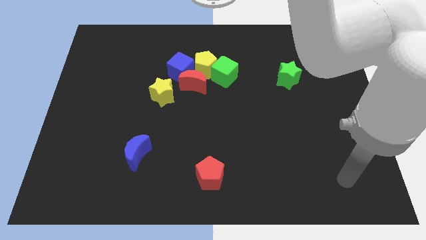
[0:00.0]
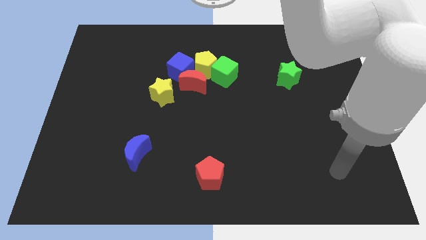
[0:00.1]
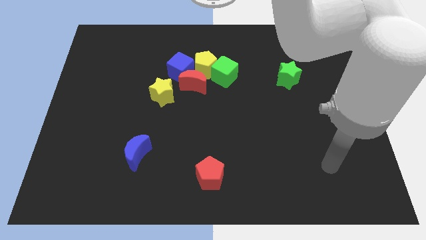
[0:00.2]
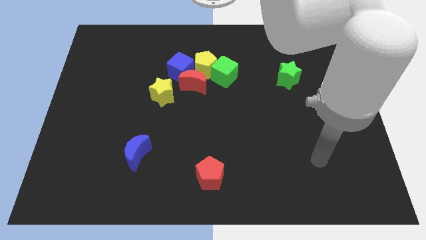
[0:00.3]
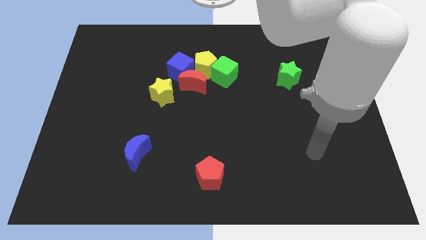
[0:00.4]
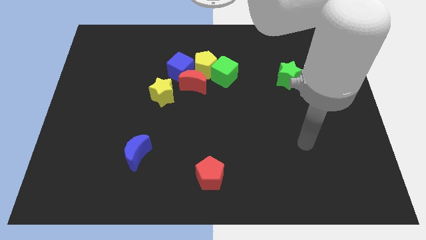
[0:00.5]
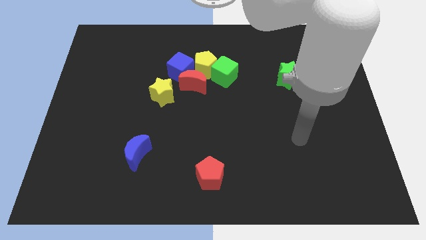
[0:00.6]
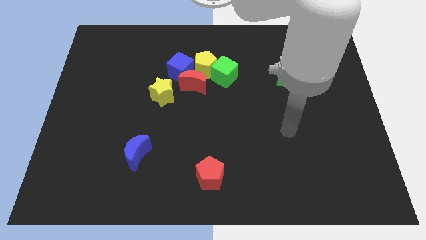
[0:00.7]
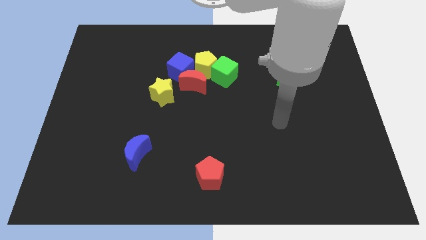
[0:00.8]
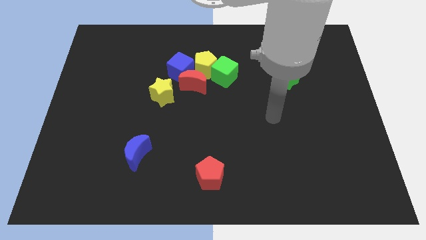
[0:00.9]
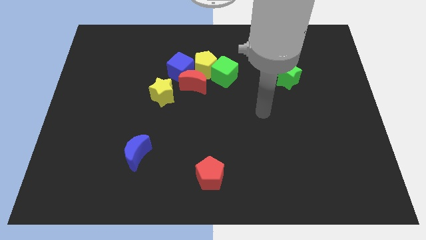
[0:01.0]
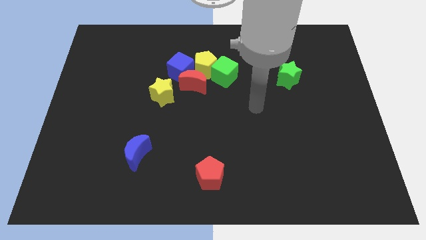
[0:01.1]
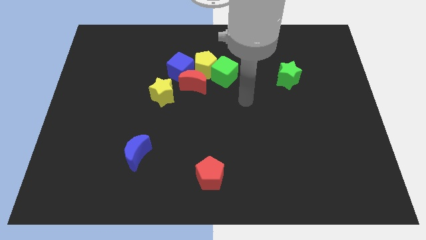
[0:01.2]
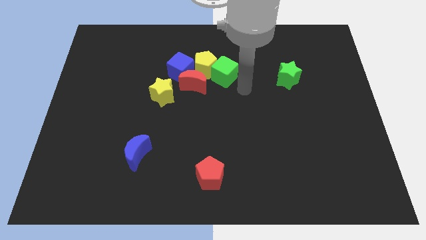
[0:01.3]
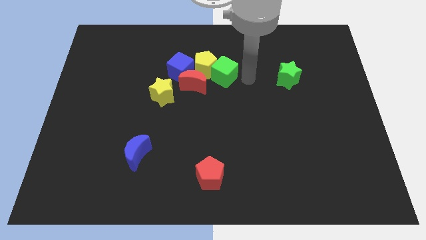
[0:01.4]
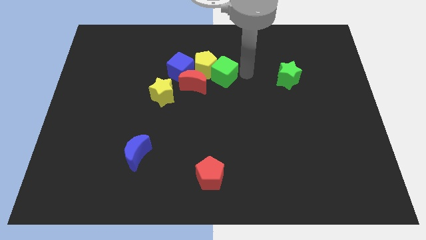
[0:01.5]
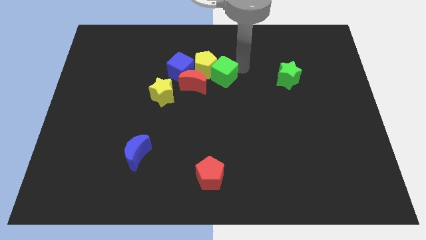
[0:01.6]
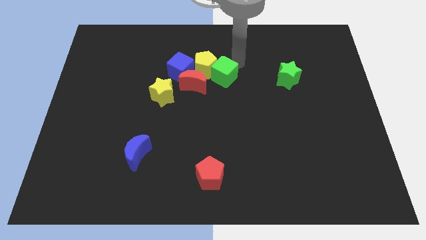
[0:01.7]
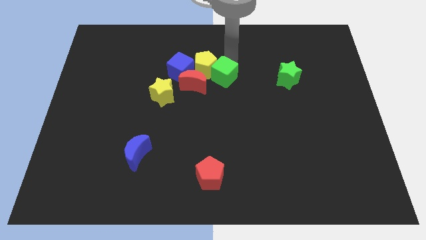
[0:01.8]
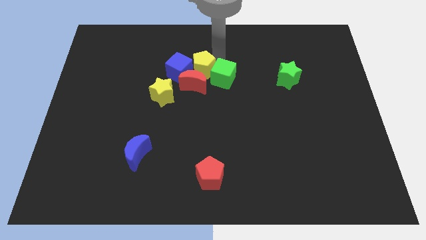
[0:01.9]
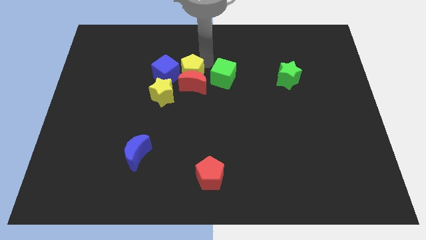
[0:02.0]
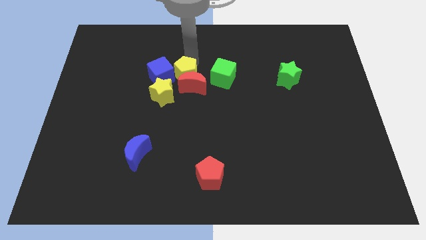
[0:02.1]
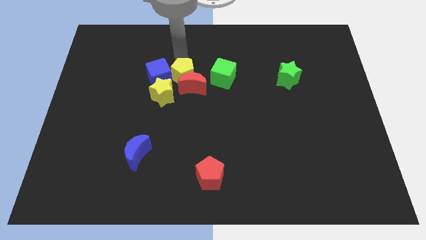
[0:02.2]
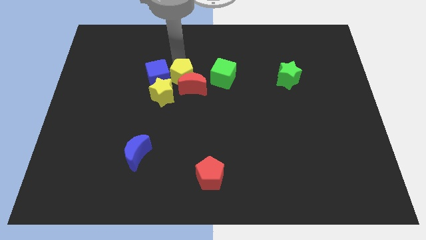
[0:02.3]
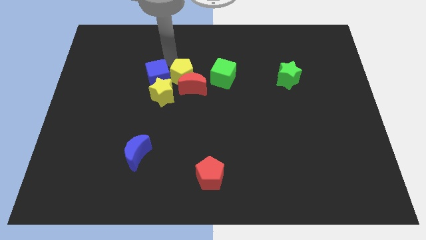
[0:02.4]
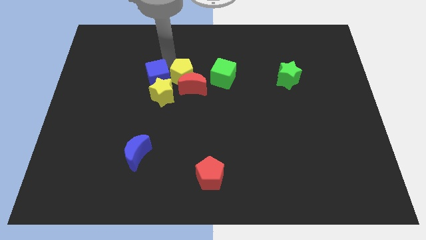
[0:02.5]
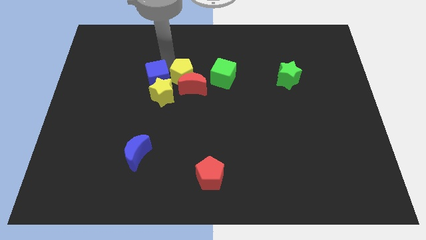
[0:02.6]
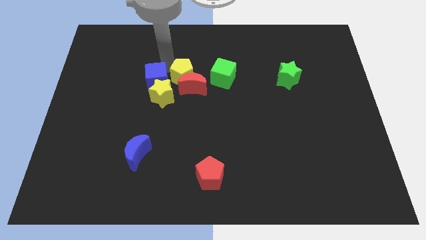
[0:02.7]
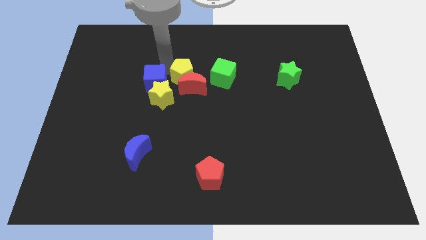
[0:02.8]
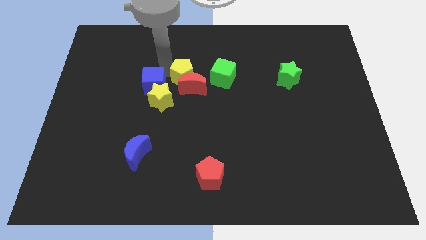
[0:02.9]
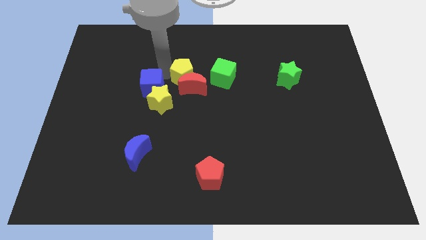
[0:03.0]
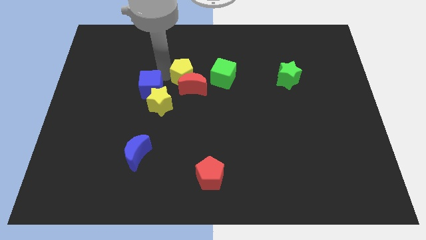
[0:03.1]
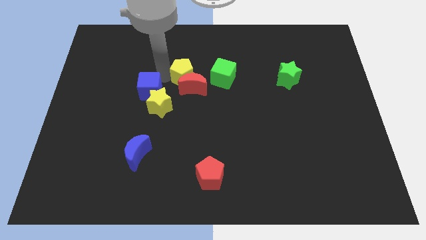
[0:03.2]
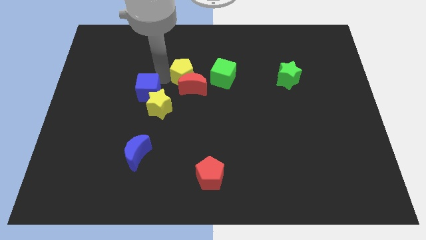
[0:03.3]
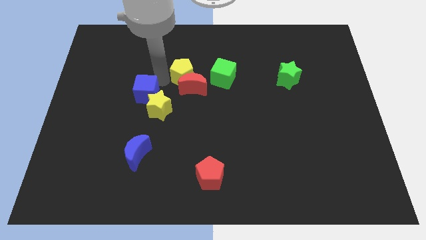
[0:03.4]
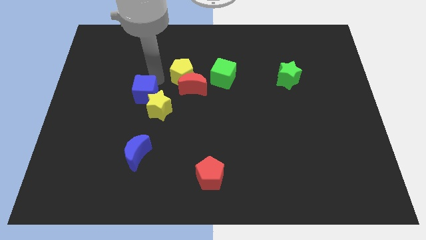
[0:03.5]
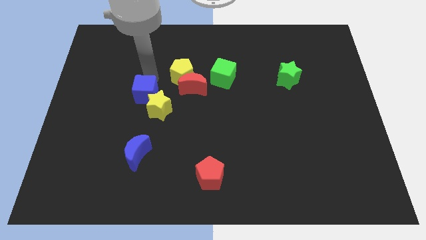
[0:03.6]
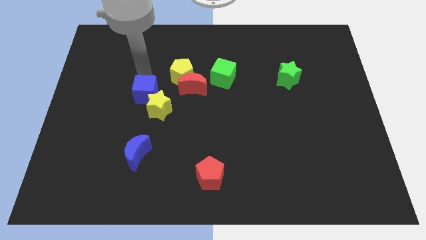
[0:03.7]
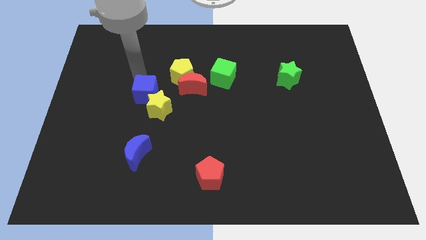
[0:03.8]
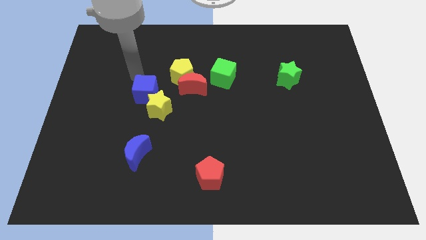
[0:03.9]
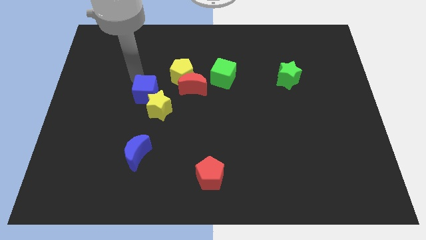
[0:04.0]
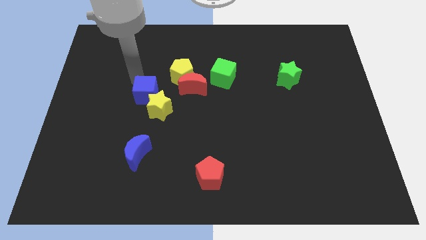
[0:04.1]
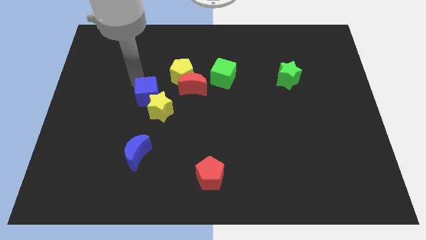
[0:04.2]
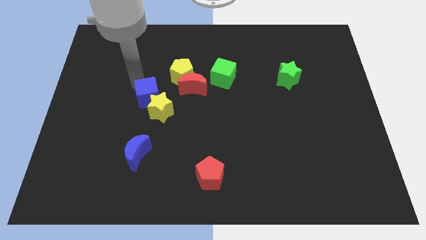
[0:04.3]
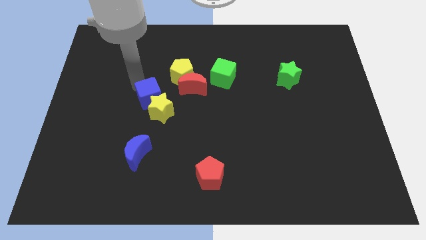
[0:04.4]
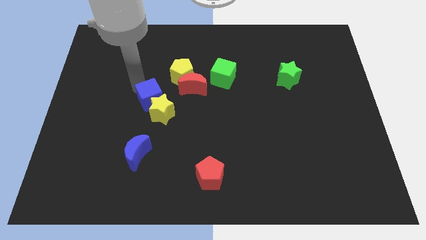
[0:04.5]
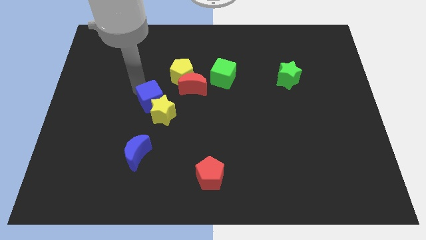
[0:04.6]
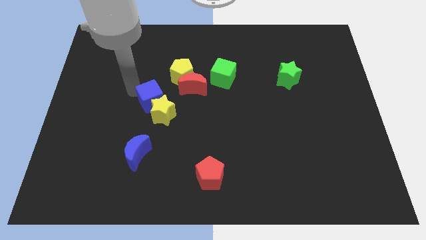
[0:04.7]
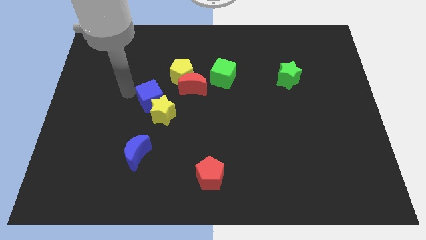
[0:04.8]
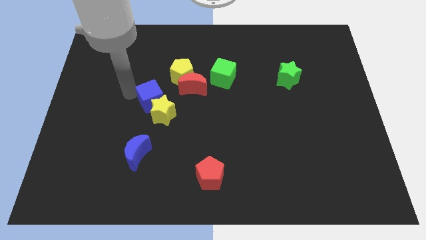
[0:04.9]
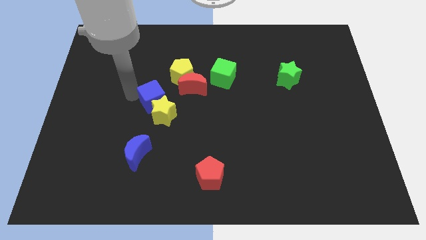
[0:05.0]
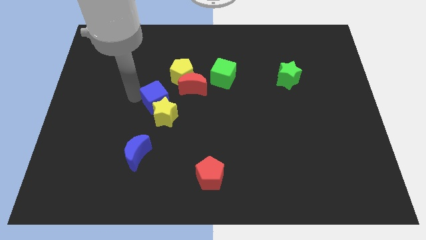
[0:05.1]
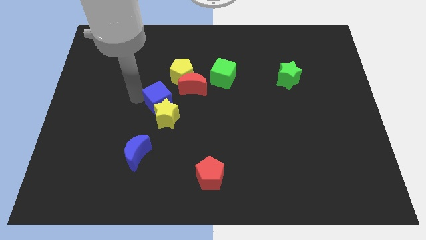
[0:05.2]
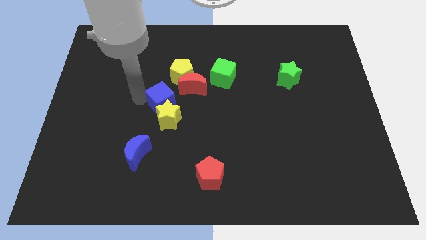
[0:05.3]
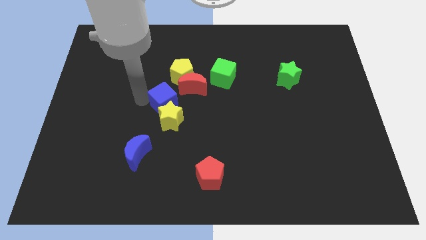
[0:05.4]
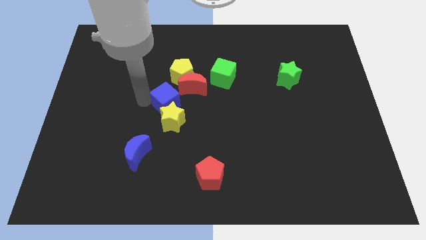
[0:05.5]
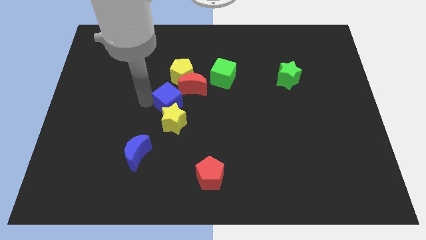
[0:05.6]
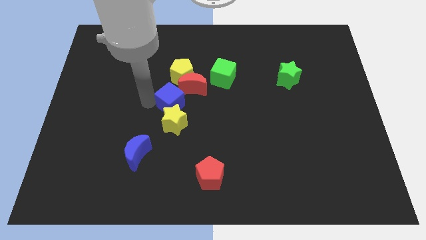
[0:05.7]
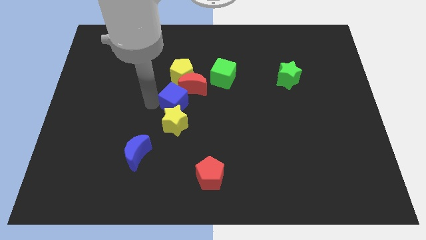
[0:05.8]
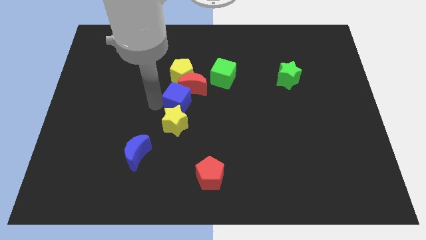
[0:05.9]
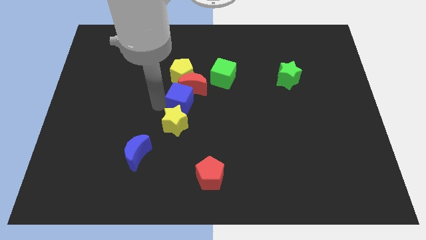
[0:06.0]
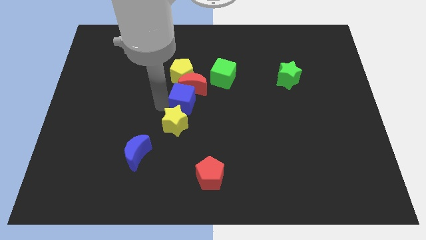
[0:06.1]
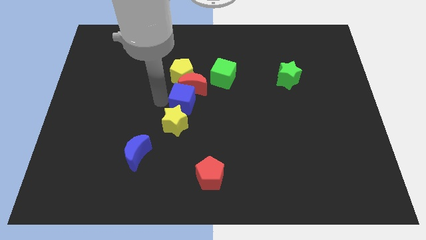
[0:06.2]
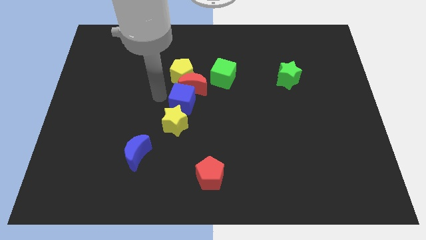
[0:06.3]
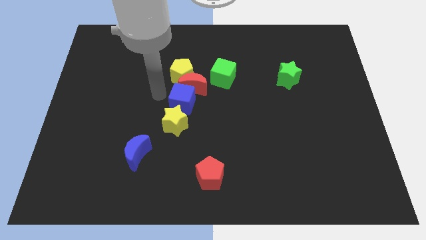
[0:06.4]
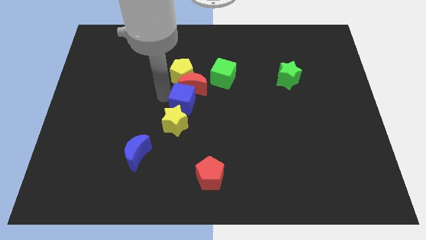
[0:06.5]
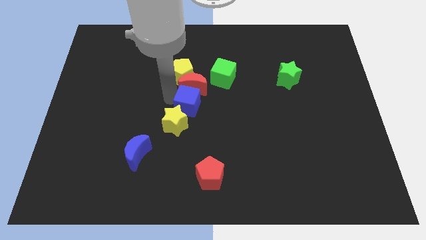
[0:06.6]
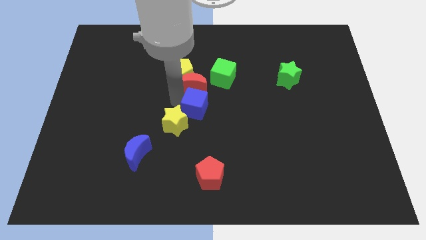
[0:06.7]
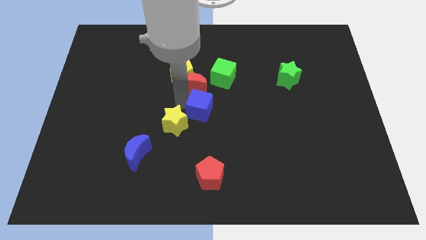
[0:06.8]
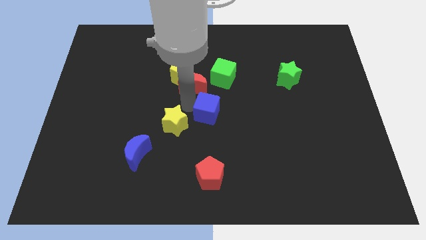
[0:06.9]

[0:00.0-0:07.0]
put the blue cube below the green cube

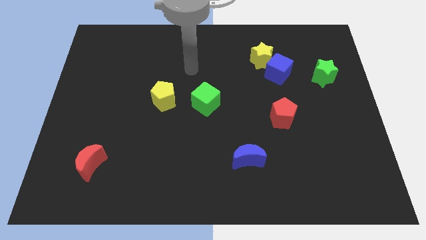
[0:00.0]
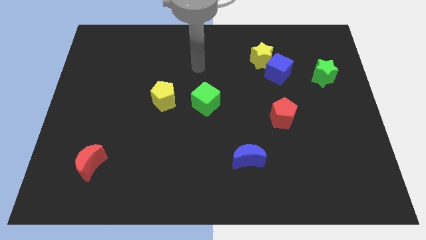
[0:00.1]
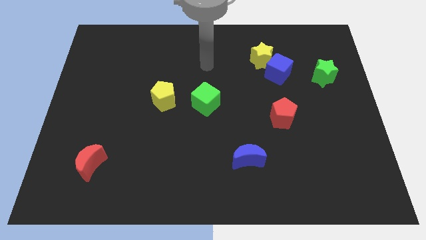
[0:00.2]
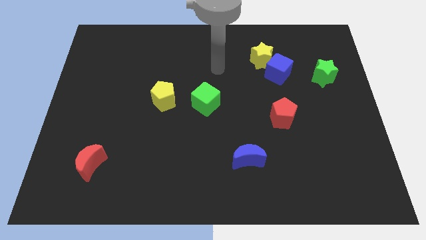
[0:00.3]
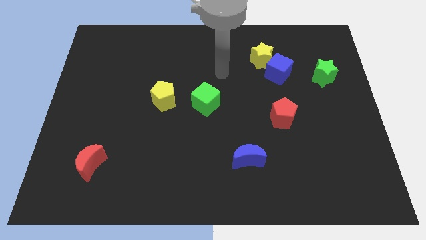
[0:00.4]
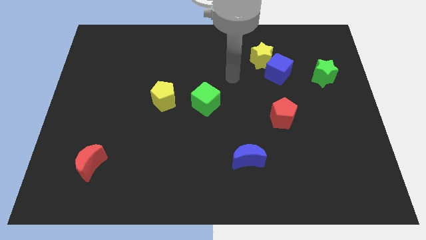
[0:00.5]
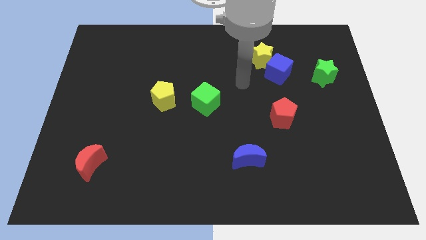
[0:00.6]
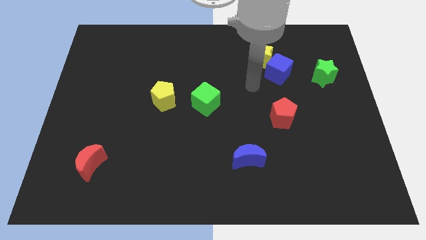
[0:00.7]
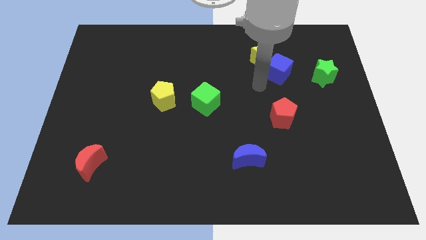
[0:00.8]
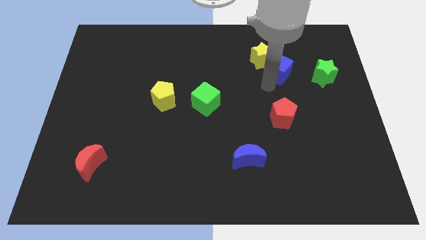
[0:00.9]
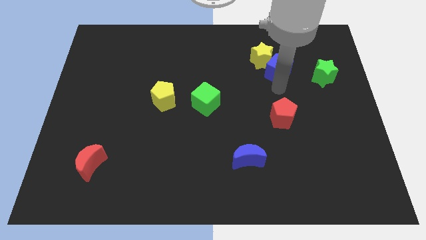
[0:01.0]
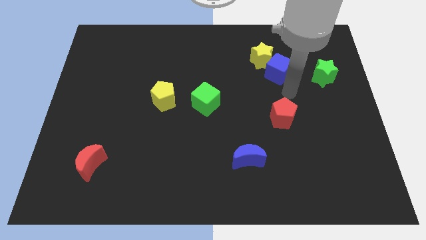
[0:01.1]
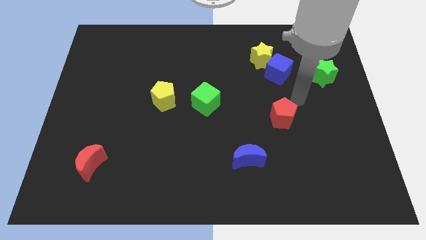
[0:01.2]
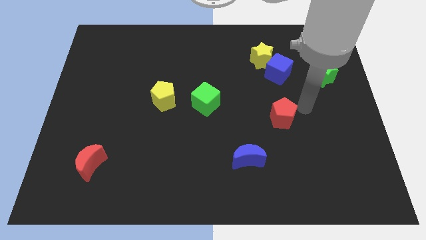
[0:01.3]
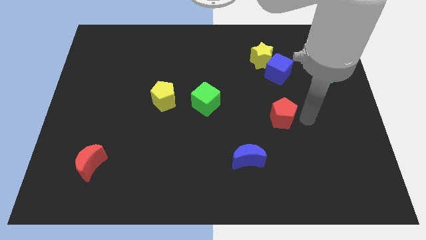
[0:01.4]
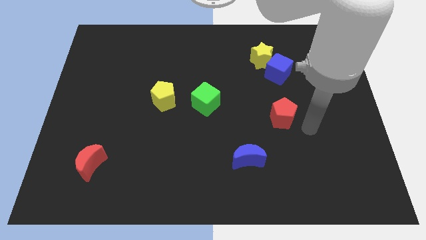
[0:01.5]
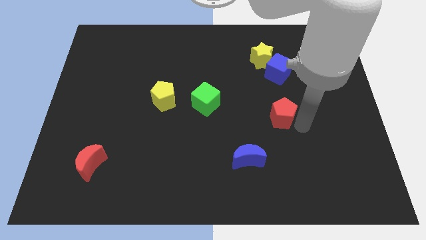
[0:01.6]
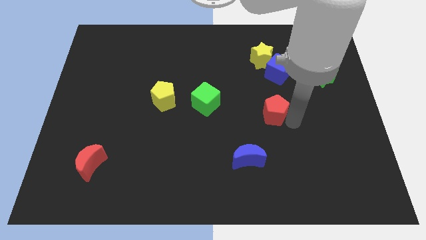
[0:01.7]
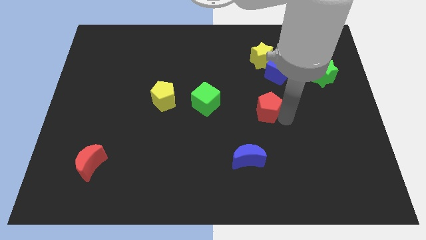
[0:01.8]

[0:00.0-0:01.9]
push the red pentagon to the right side of the green cube
